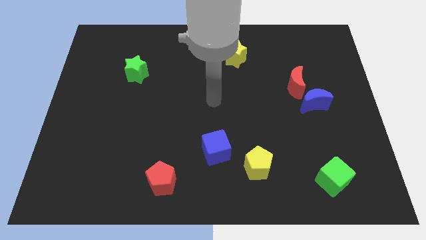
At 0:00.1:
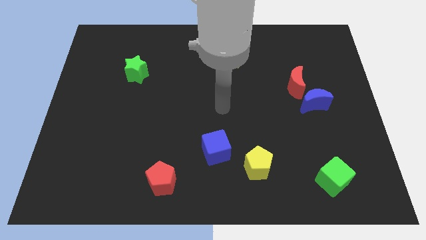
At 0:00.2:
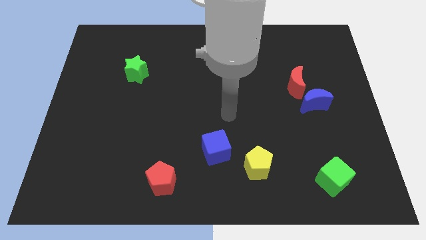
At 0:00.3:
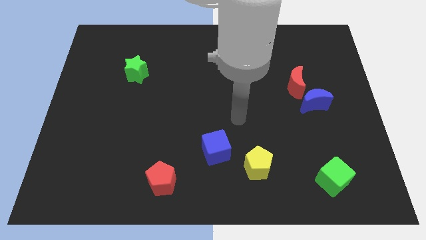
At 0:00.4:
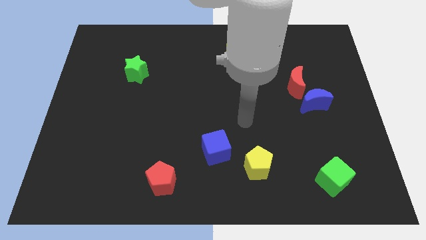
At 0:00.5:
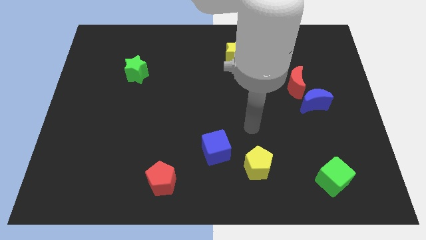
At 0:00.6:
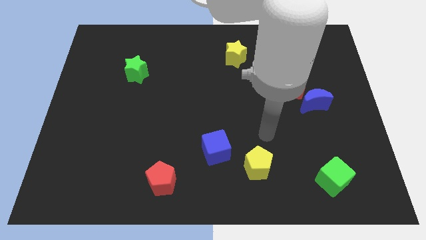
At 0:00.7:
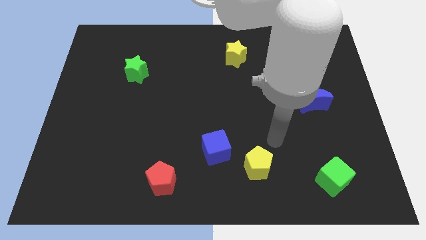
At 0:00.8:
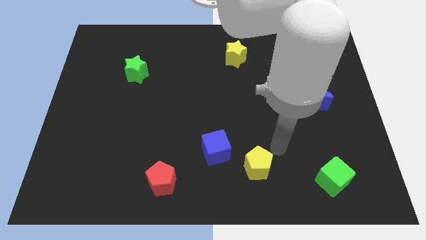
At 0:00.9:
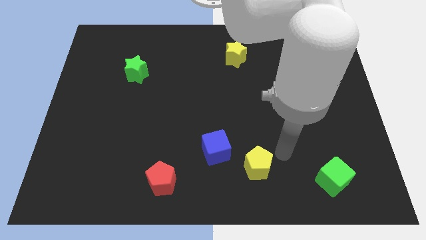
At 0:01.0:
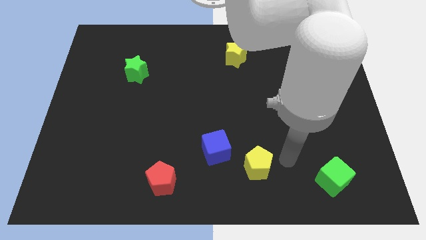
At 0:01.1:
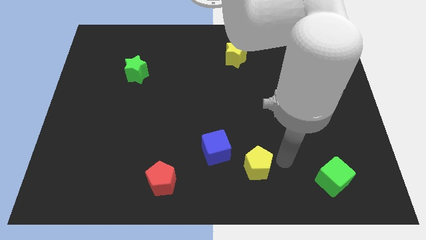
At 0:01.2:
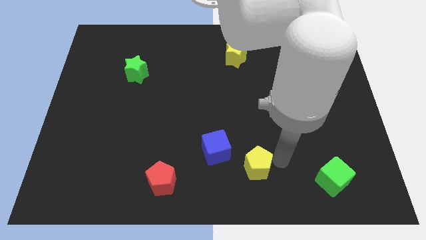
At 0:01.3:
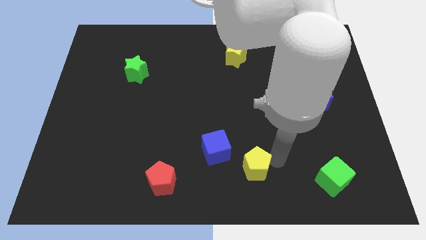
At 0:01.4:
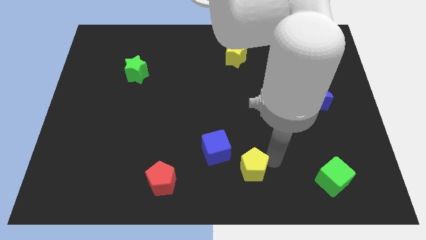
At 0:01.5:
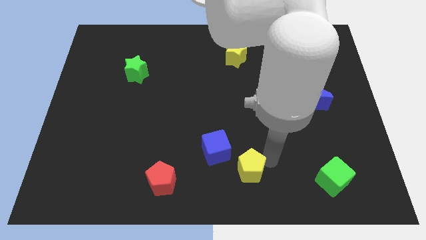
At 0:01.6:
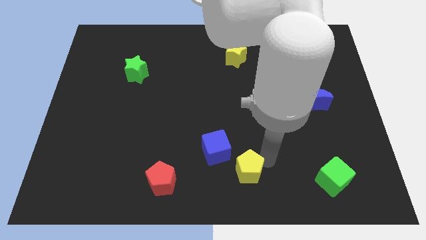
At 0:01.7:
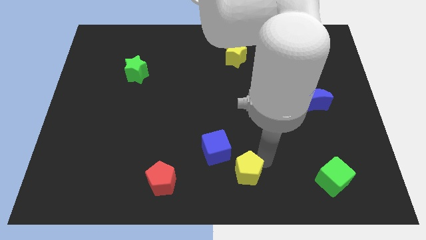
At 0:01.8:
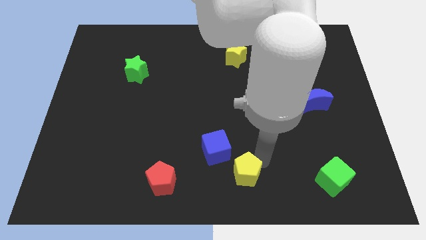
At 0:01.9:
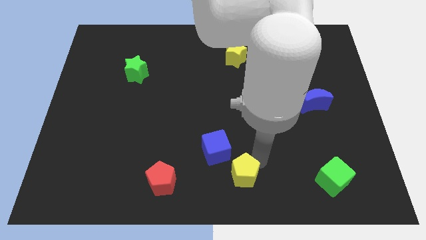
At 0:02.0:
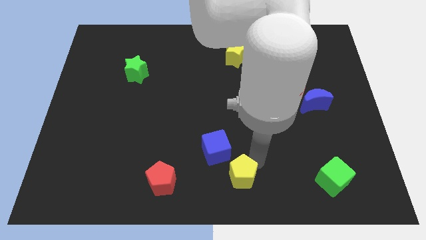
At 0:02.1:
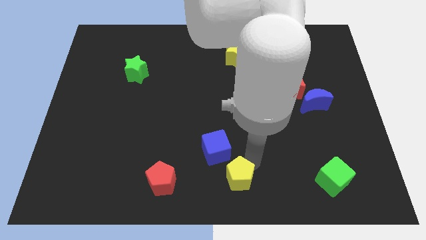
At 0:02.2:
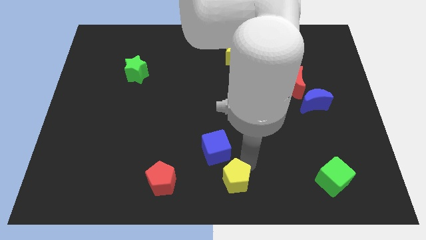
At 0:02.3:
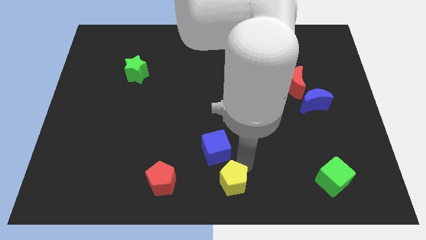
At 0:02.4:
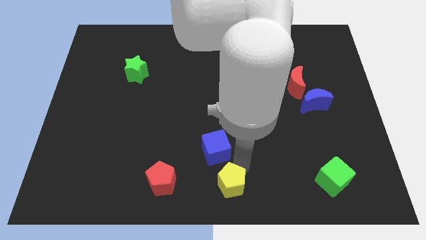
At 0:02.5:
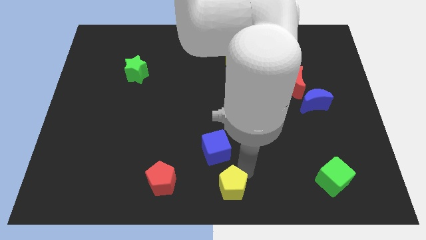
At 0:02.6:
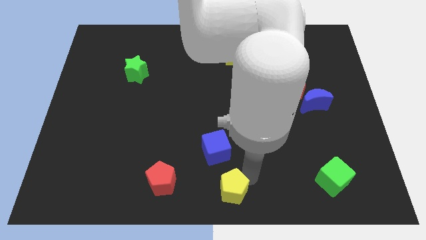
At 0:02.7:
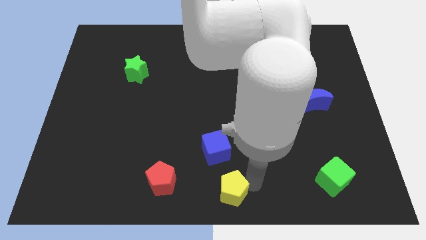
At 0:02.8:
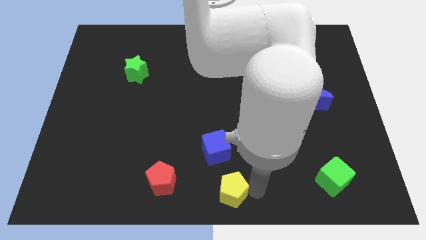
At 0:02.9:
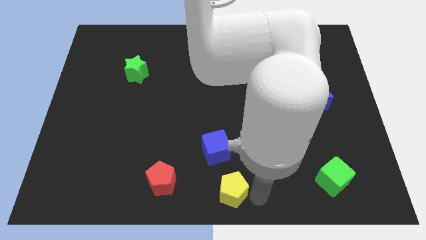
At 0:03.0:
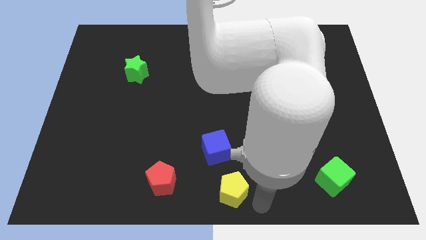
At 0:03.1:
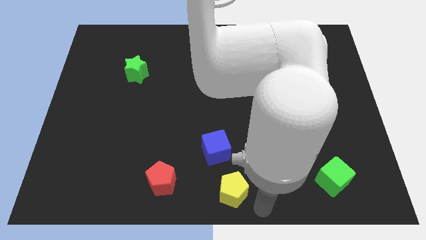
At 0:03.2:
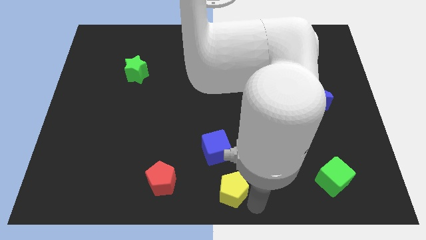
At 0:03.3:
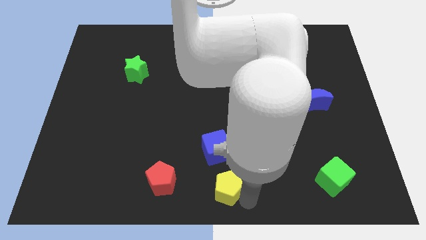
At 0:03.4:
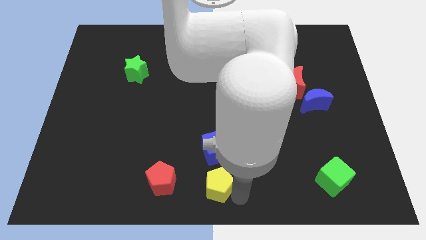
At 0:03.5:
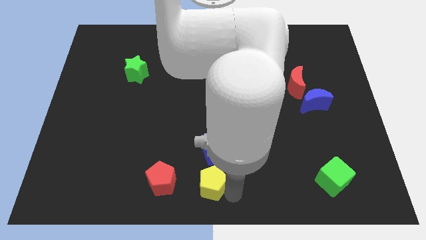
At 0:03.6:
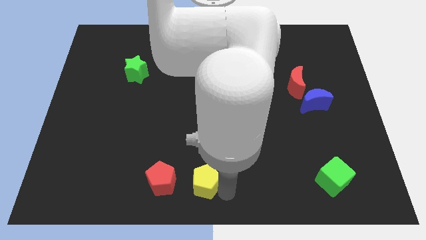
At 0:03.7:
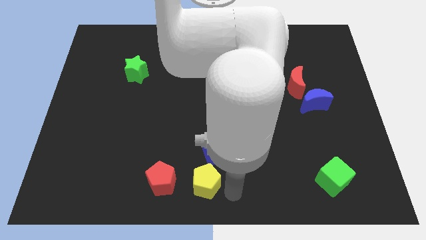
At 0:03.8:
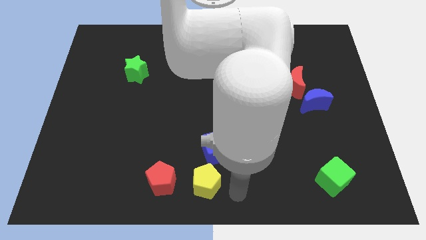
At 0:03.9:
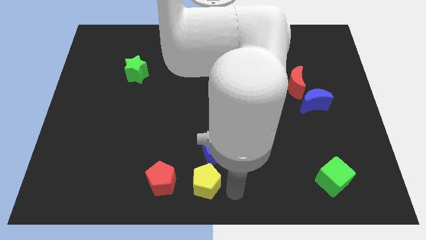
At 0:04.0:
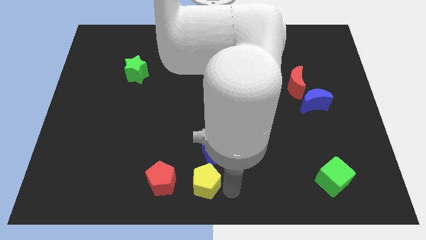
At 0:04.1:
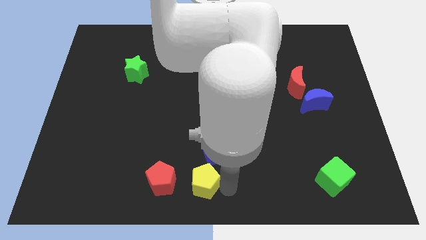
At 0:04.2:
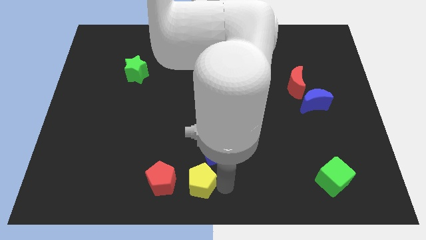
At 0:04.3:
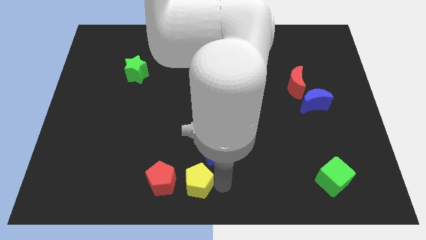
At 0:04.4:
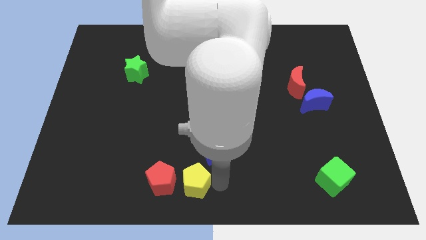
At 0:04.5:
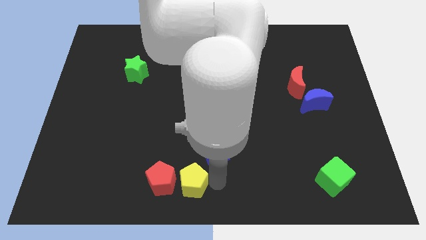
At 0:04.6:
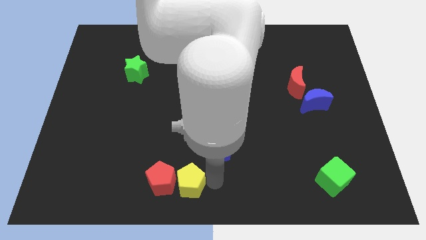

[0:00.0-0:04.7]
push the yellow pentagon to the red pentagon

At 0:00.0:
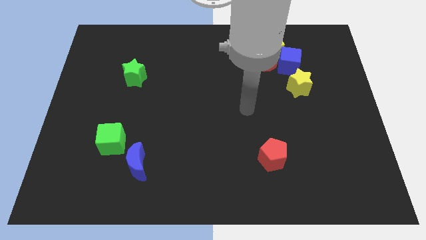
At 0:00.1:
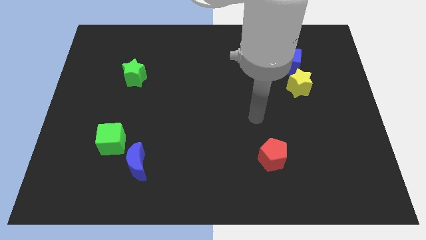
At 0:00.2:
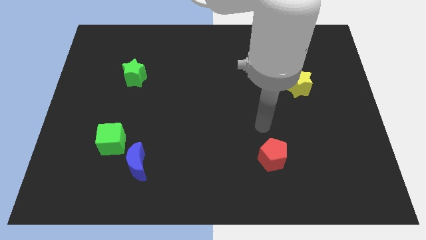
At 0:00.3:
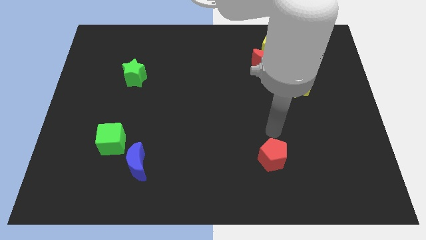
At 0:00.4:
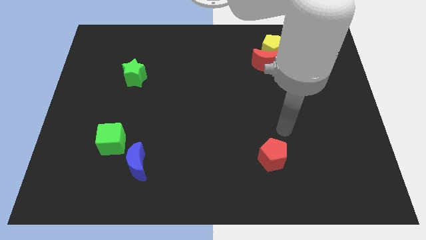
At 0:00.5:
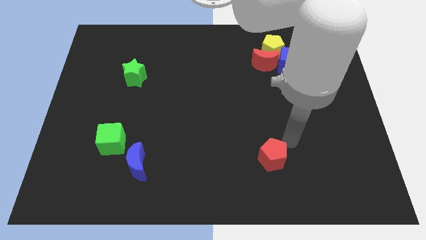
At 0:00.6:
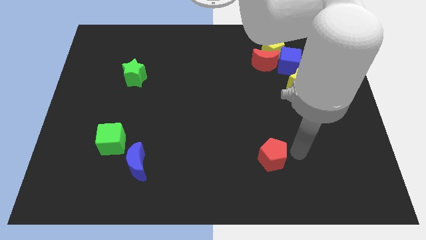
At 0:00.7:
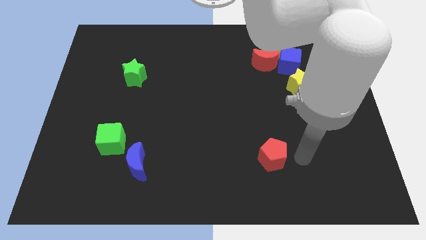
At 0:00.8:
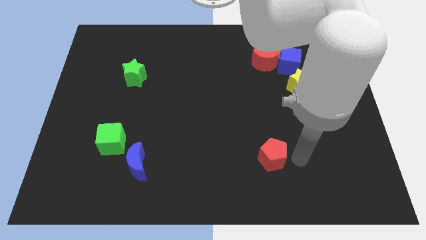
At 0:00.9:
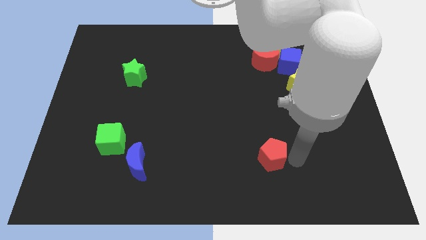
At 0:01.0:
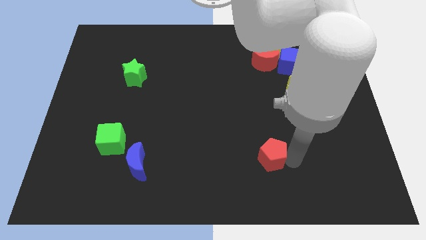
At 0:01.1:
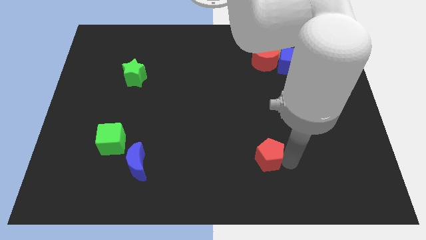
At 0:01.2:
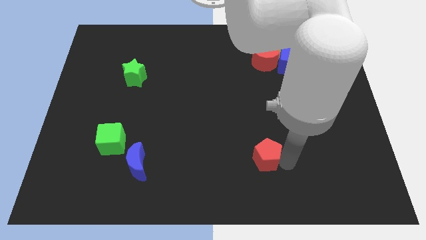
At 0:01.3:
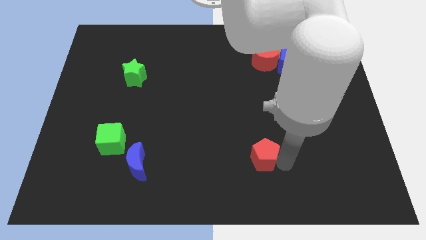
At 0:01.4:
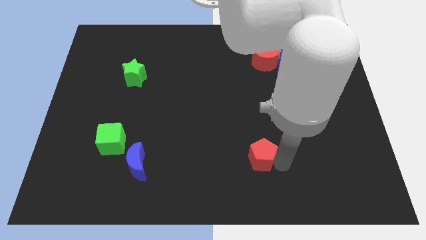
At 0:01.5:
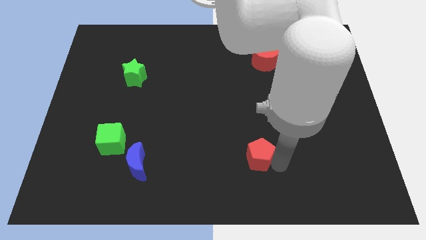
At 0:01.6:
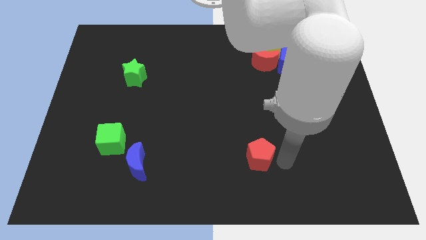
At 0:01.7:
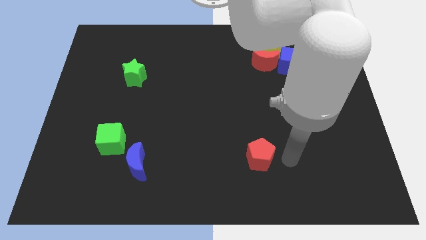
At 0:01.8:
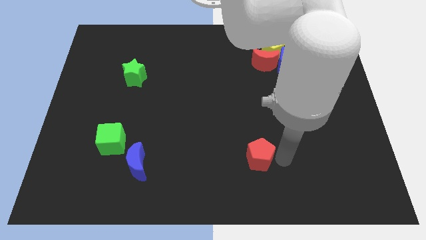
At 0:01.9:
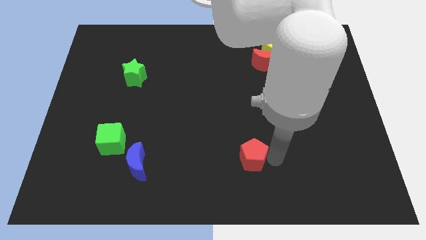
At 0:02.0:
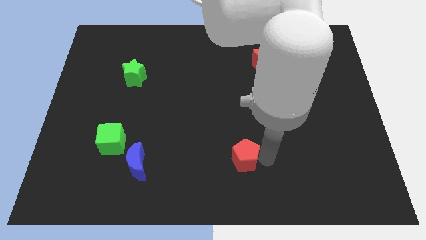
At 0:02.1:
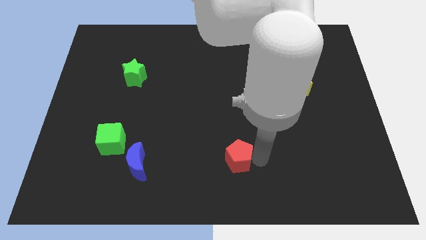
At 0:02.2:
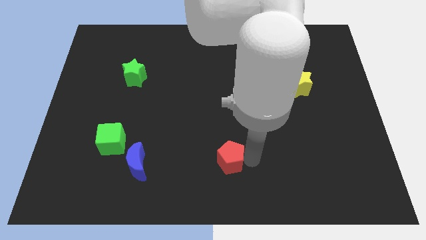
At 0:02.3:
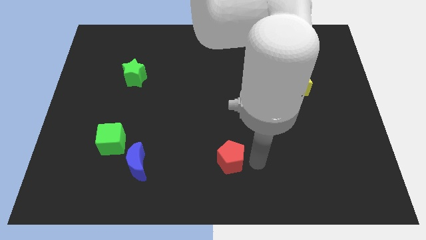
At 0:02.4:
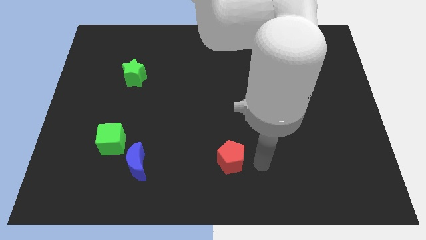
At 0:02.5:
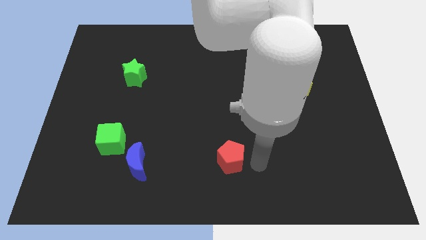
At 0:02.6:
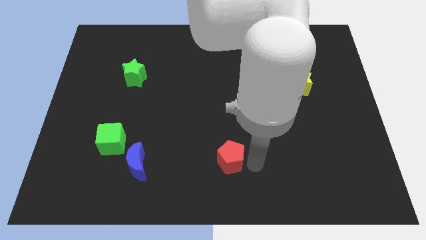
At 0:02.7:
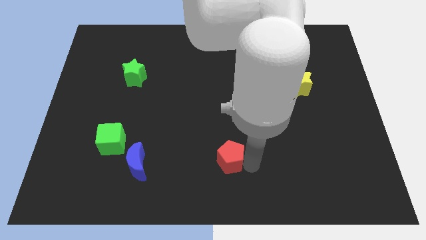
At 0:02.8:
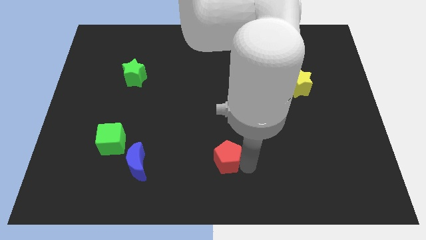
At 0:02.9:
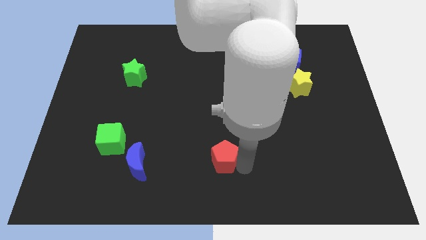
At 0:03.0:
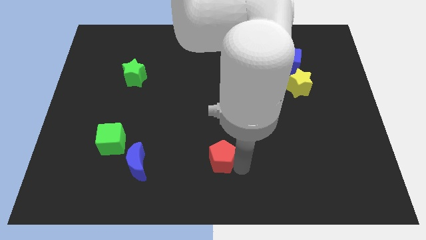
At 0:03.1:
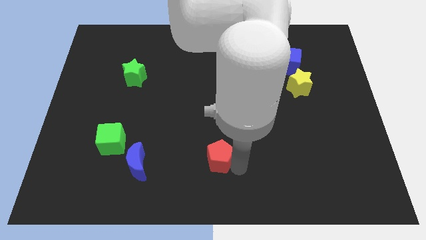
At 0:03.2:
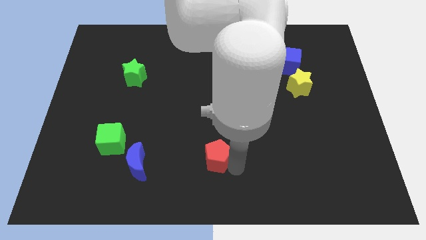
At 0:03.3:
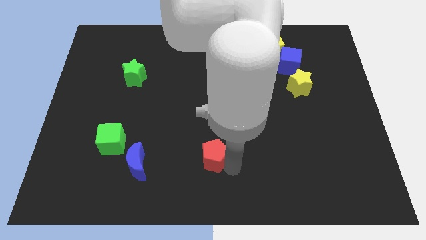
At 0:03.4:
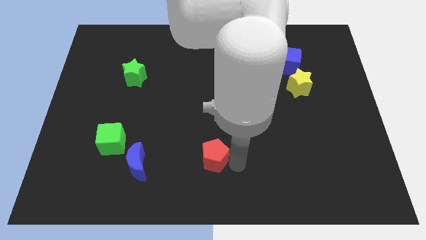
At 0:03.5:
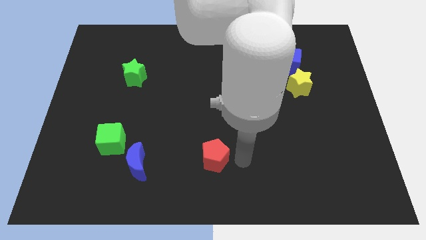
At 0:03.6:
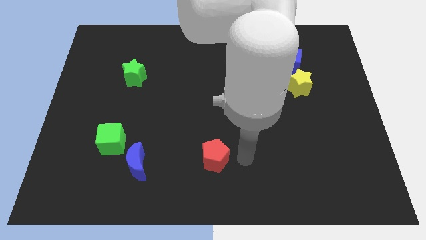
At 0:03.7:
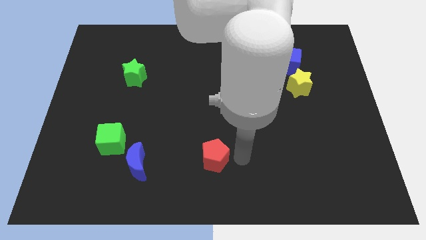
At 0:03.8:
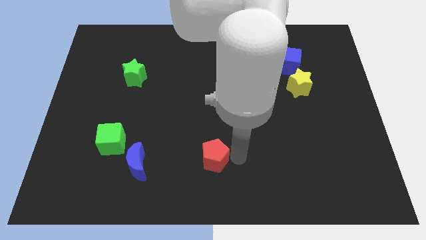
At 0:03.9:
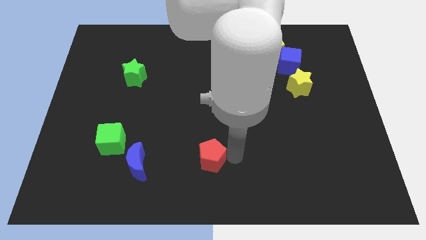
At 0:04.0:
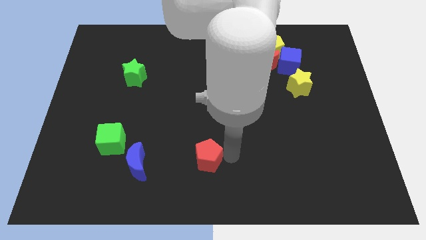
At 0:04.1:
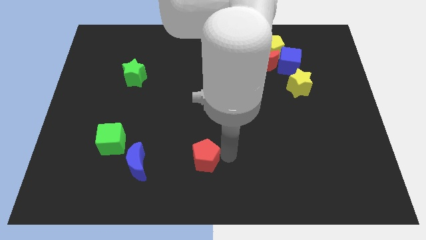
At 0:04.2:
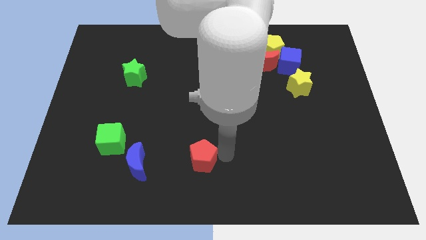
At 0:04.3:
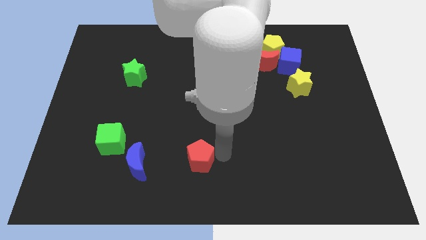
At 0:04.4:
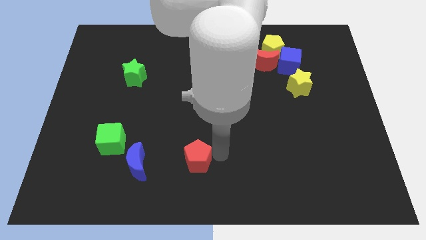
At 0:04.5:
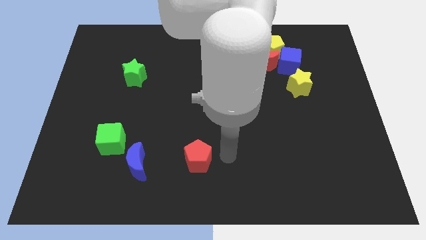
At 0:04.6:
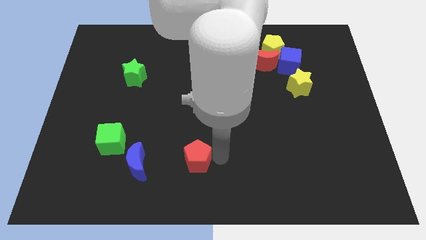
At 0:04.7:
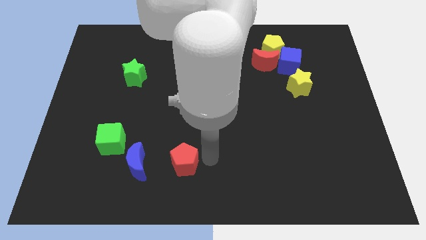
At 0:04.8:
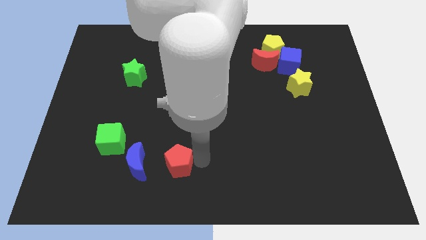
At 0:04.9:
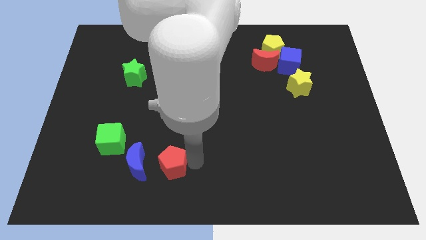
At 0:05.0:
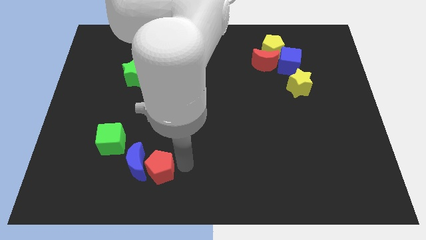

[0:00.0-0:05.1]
push the red pentagon close to the blue moon
